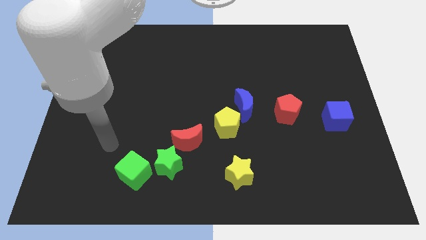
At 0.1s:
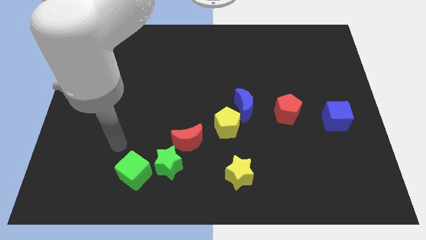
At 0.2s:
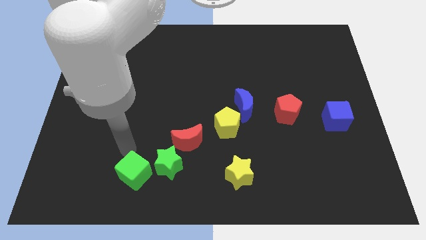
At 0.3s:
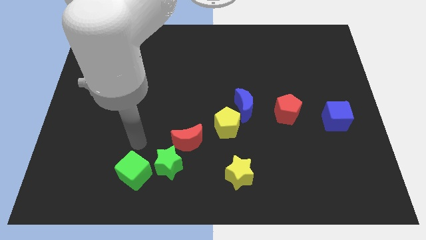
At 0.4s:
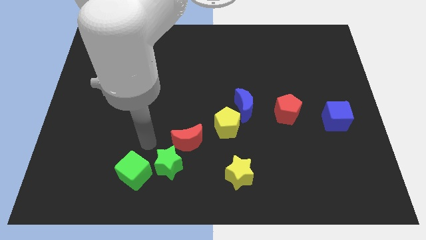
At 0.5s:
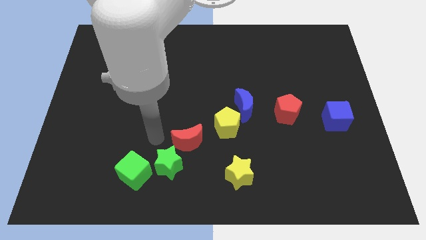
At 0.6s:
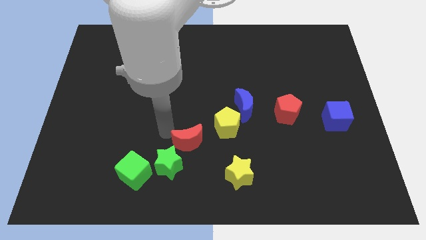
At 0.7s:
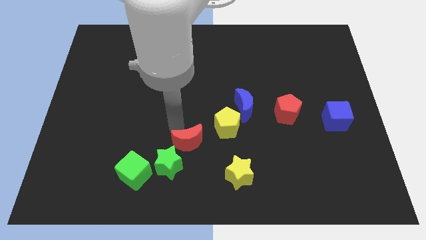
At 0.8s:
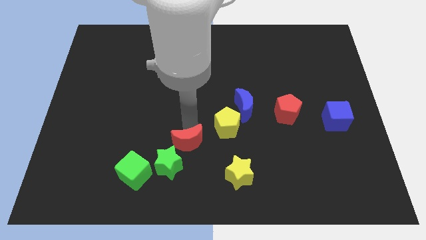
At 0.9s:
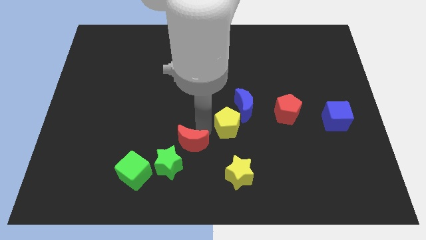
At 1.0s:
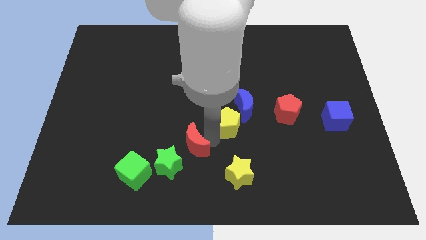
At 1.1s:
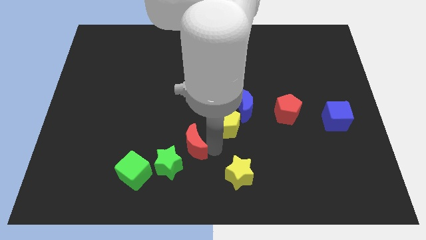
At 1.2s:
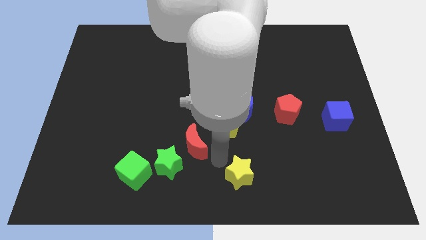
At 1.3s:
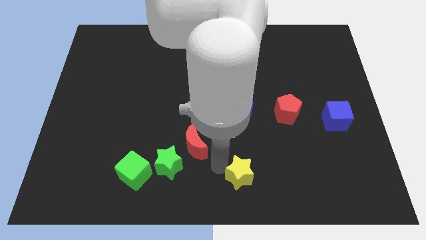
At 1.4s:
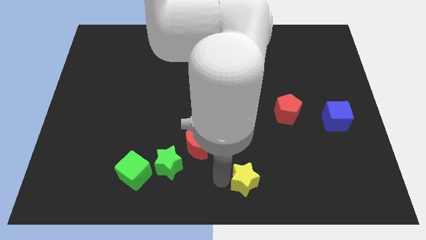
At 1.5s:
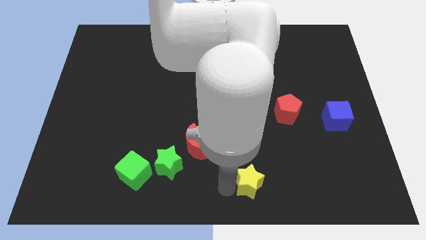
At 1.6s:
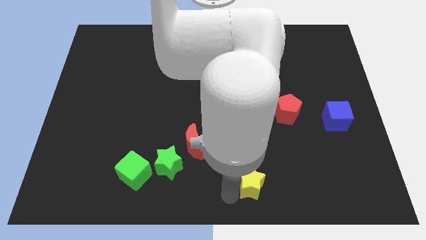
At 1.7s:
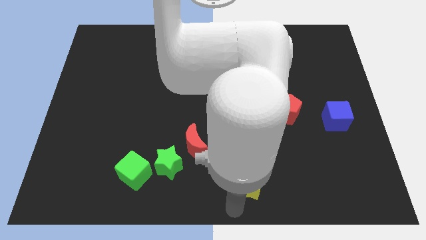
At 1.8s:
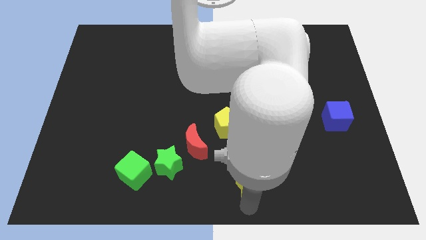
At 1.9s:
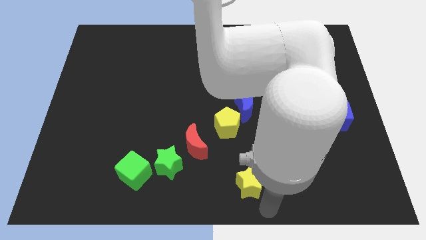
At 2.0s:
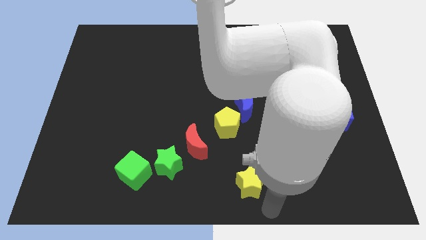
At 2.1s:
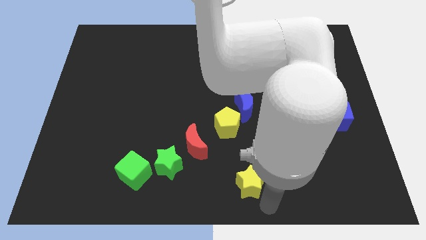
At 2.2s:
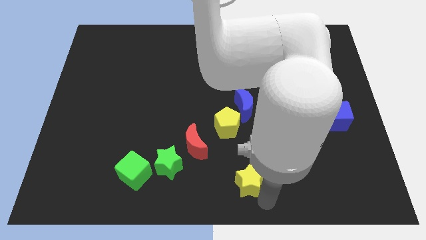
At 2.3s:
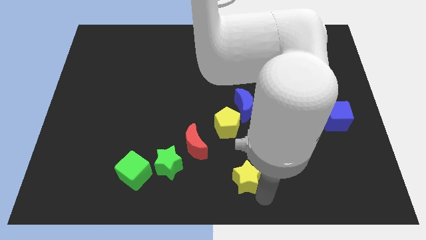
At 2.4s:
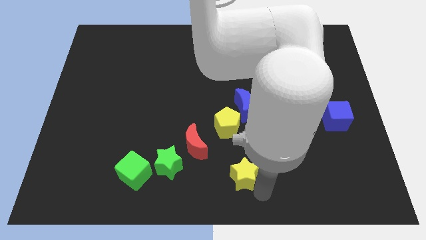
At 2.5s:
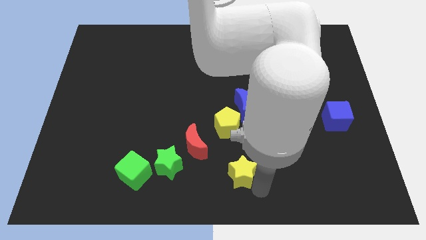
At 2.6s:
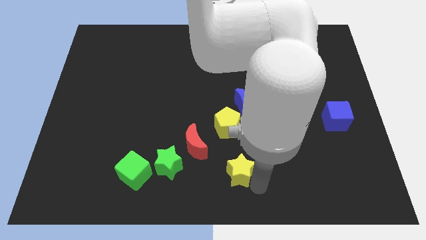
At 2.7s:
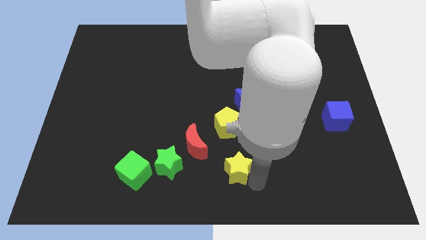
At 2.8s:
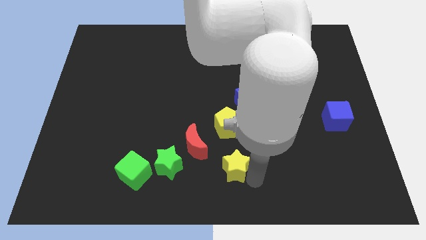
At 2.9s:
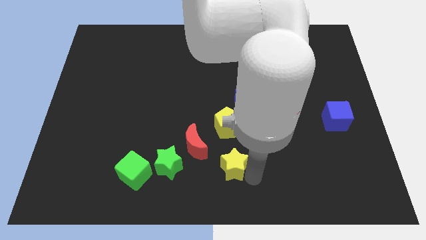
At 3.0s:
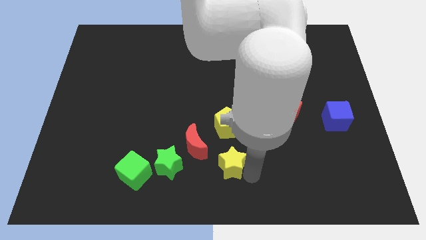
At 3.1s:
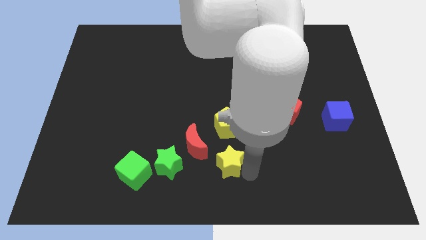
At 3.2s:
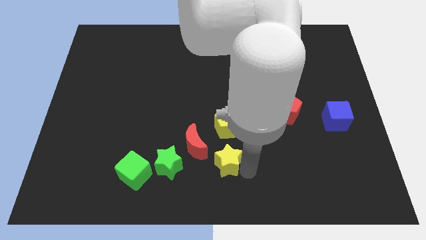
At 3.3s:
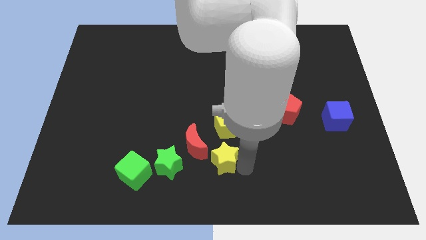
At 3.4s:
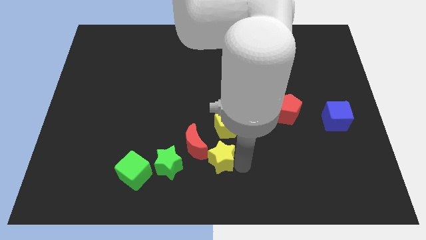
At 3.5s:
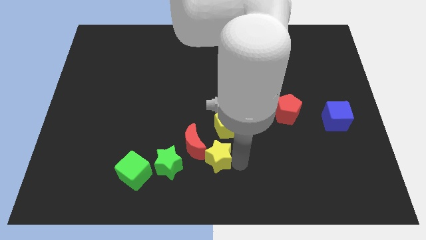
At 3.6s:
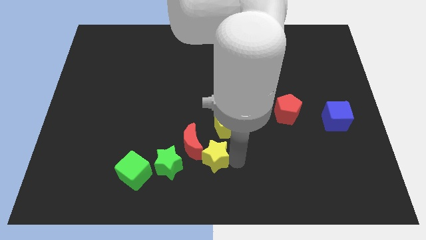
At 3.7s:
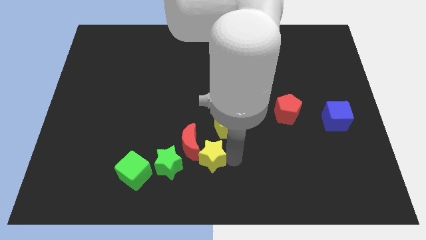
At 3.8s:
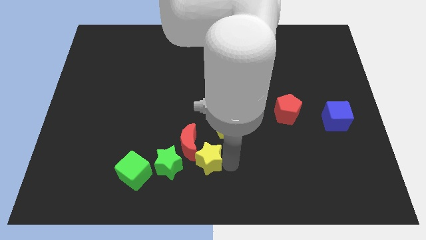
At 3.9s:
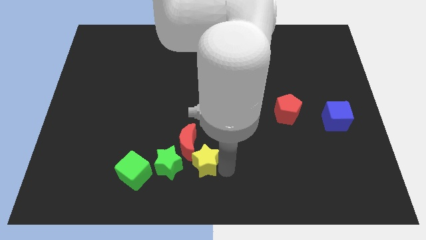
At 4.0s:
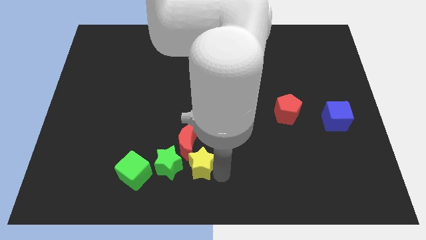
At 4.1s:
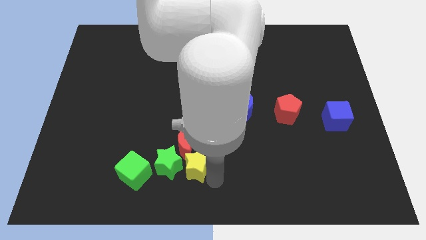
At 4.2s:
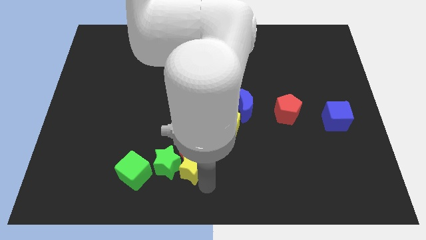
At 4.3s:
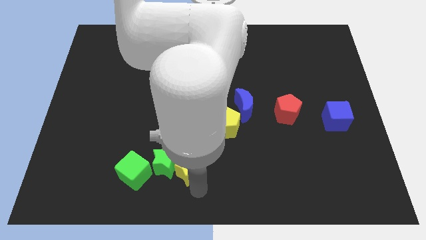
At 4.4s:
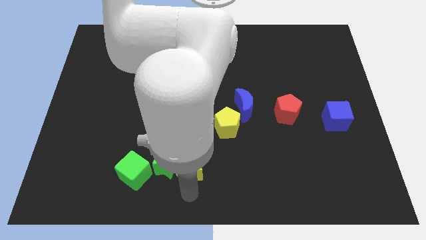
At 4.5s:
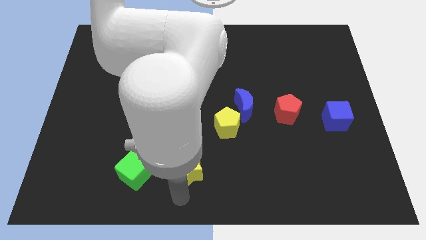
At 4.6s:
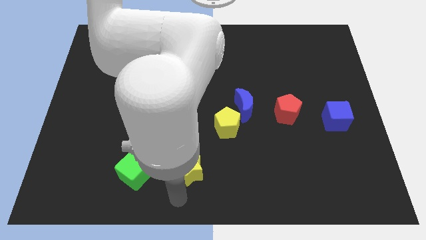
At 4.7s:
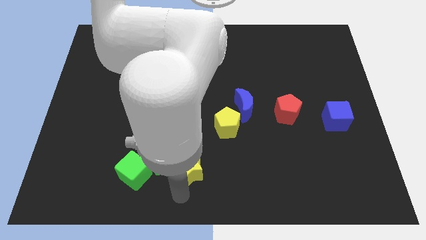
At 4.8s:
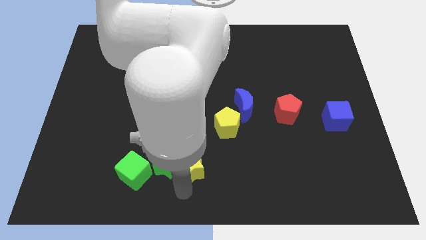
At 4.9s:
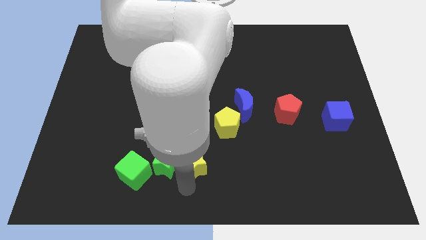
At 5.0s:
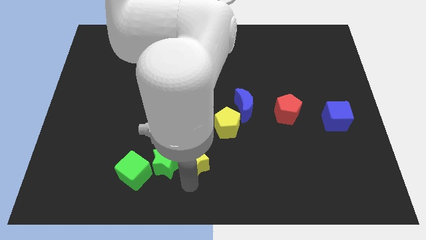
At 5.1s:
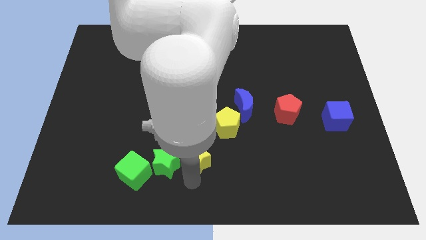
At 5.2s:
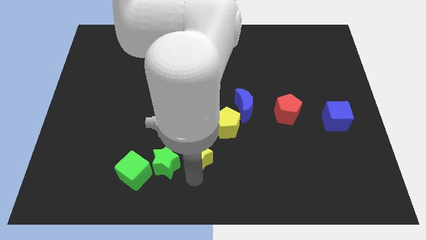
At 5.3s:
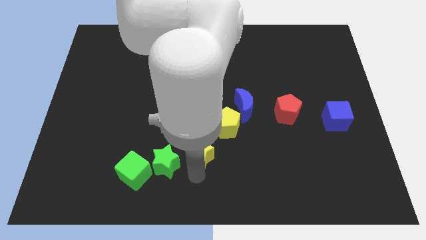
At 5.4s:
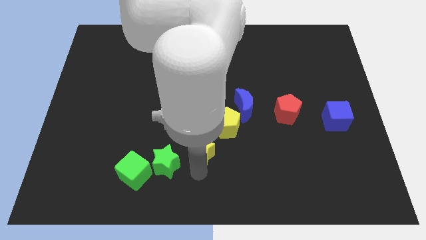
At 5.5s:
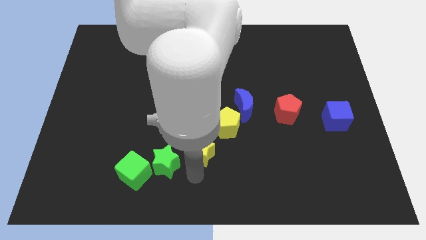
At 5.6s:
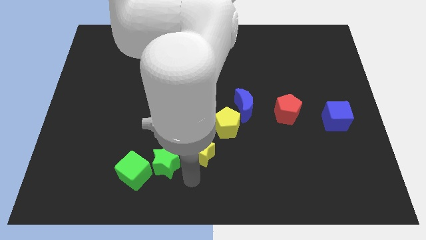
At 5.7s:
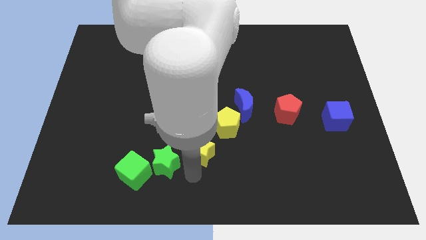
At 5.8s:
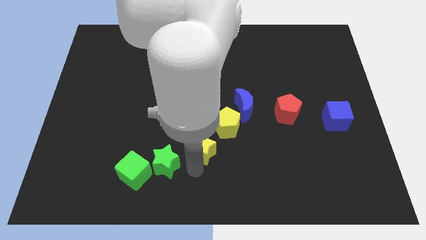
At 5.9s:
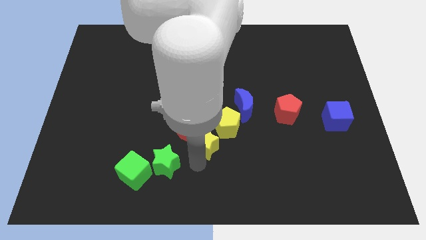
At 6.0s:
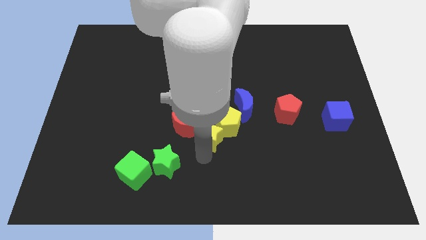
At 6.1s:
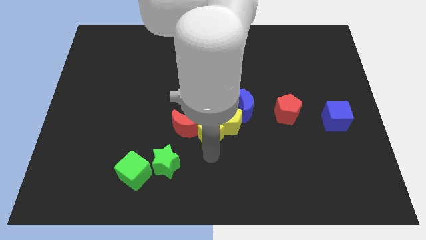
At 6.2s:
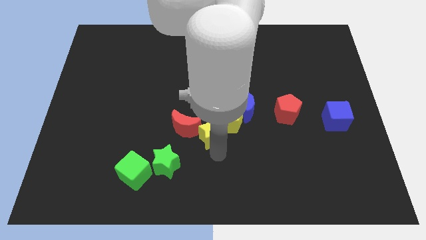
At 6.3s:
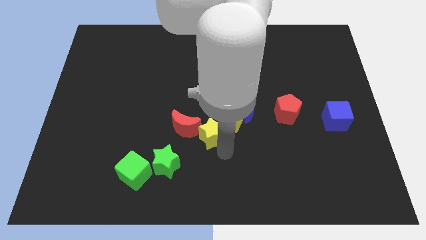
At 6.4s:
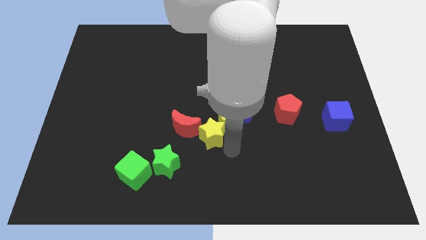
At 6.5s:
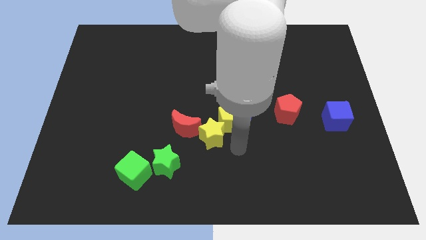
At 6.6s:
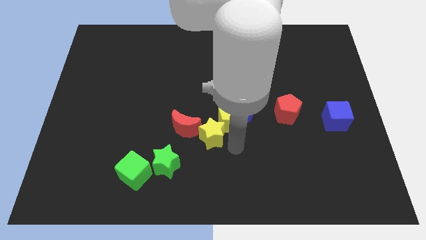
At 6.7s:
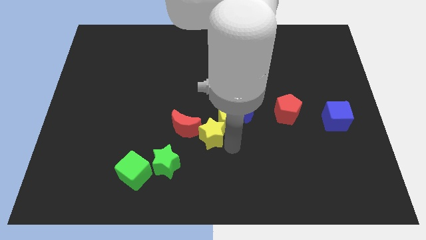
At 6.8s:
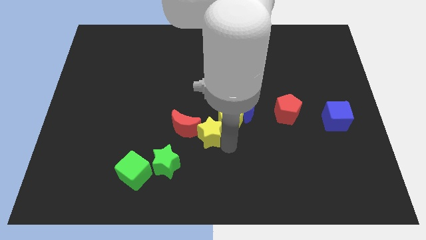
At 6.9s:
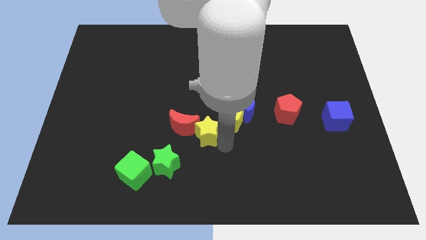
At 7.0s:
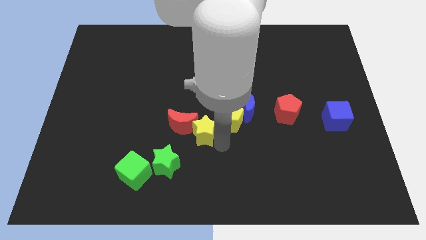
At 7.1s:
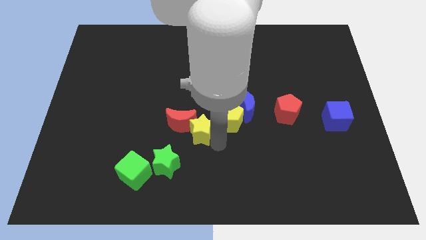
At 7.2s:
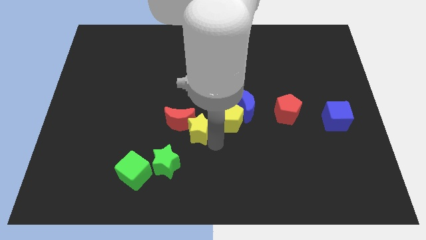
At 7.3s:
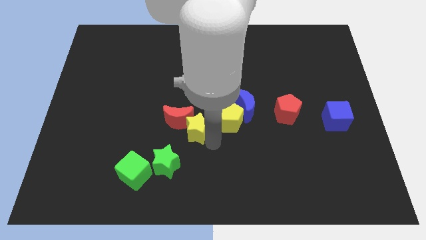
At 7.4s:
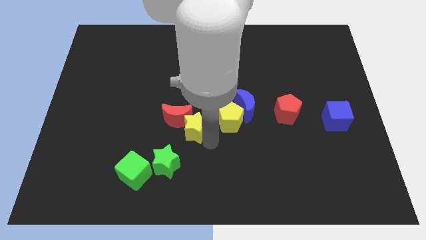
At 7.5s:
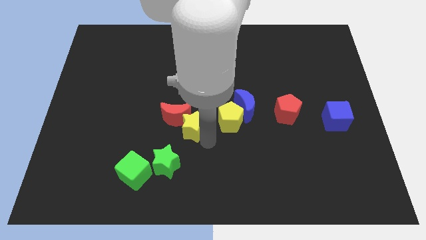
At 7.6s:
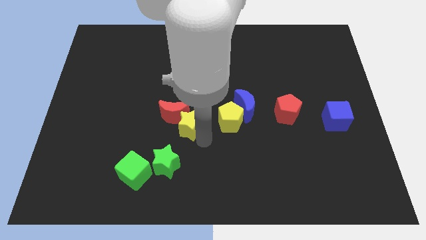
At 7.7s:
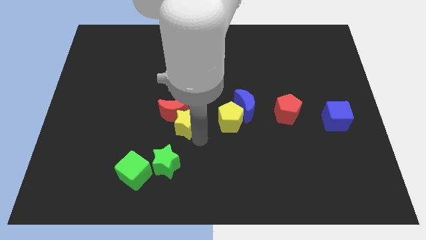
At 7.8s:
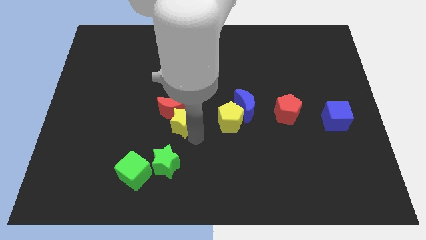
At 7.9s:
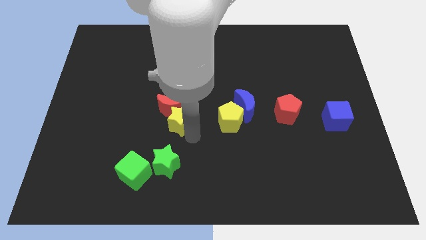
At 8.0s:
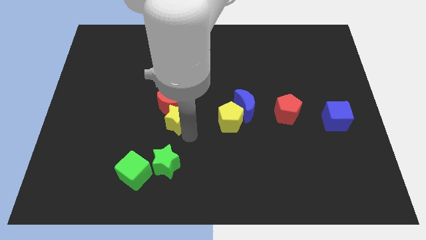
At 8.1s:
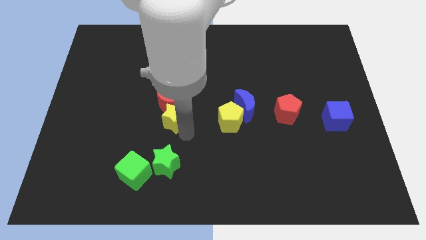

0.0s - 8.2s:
slide the yellow star up and left
